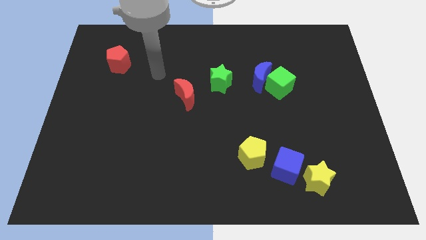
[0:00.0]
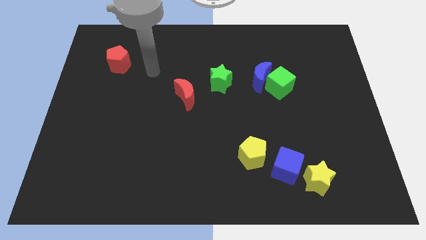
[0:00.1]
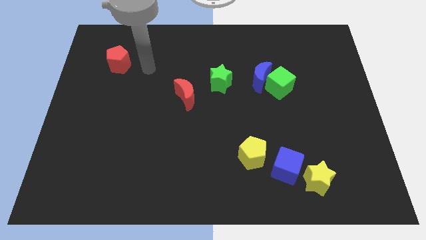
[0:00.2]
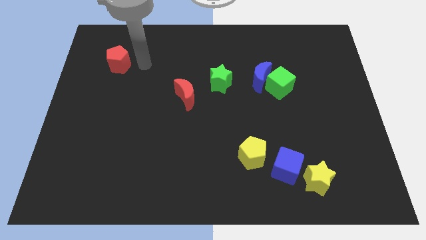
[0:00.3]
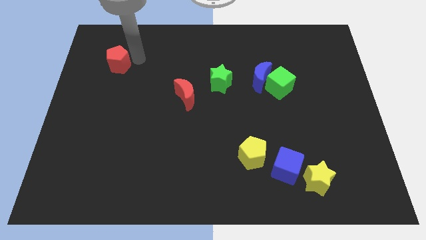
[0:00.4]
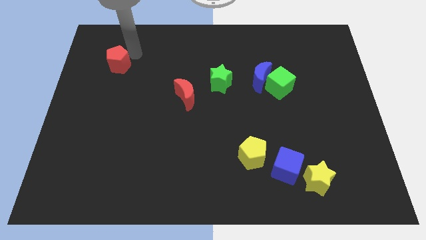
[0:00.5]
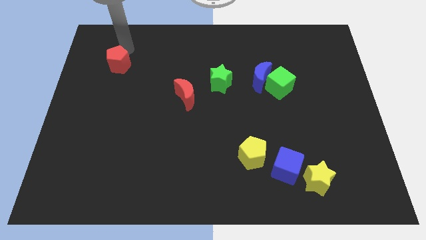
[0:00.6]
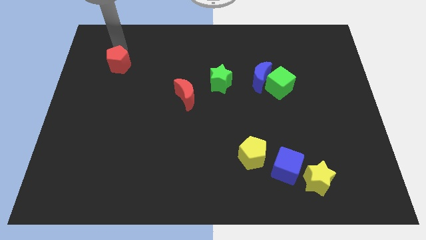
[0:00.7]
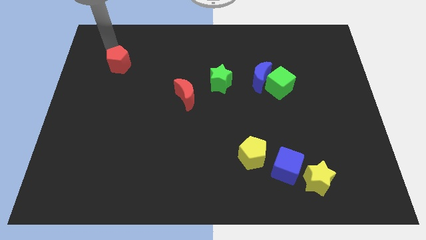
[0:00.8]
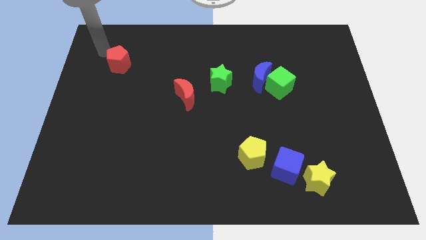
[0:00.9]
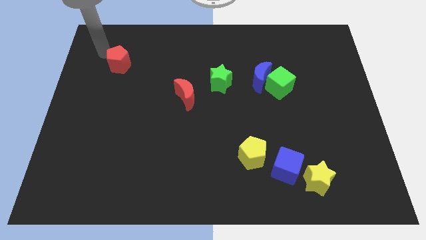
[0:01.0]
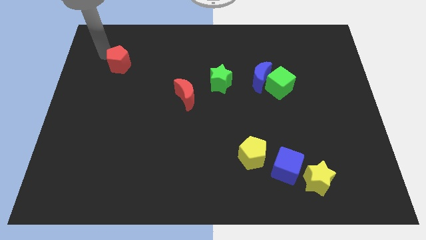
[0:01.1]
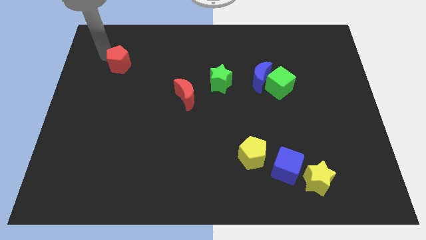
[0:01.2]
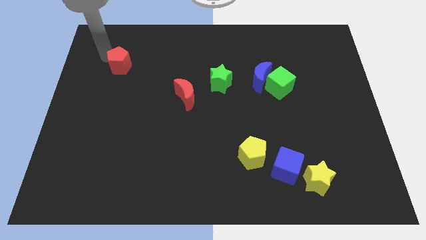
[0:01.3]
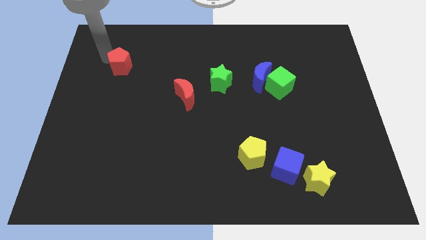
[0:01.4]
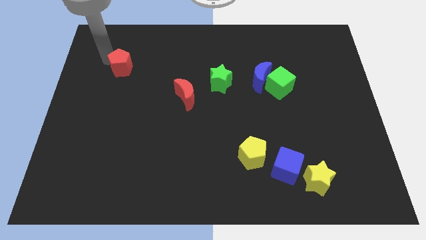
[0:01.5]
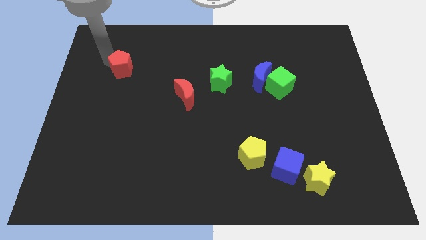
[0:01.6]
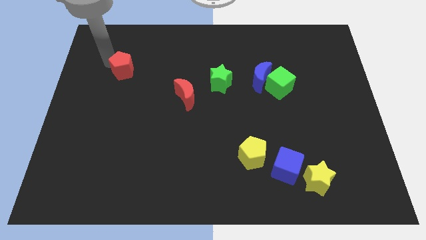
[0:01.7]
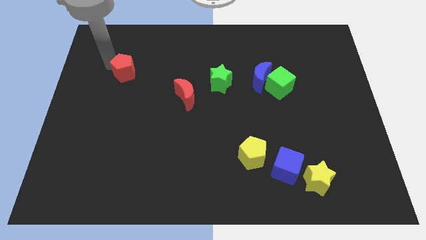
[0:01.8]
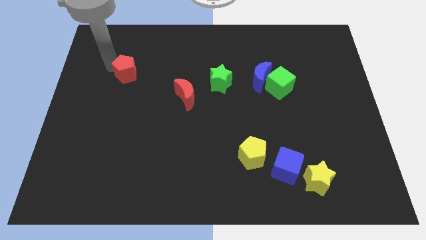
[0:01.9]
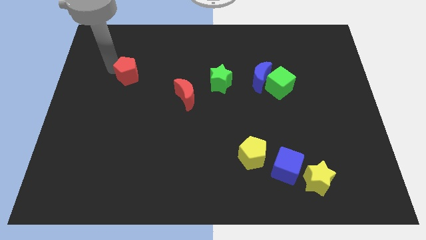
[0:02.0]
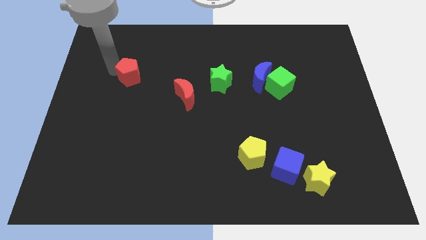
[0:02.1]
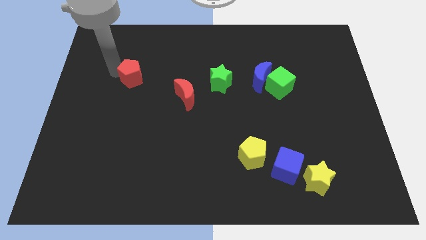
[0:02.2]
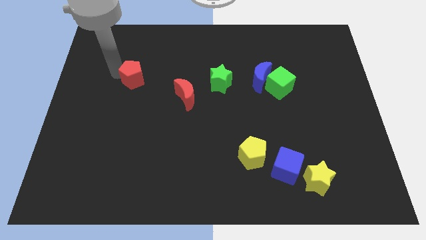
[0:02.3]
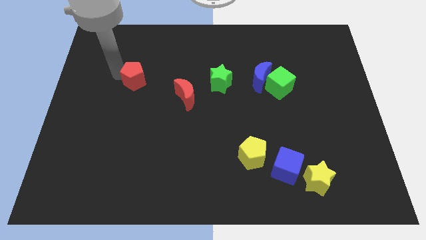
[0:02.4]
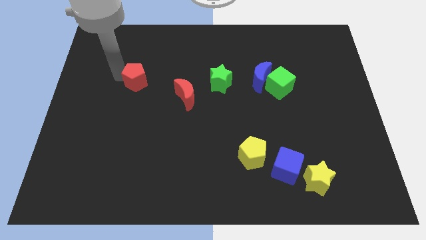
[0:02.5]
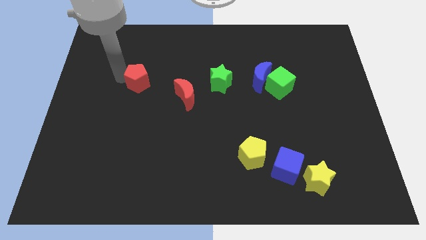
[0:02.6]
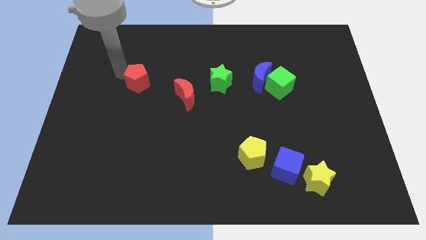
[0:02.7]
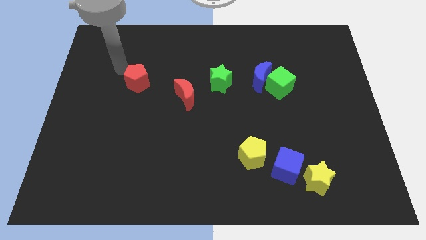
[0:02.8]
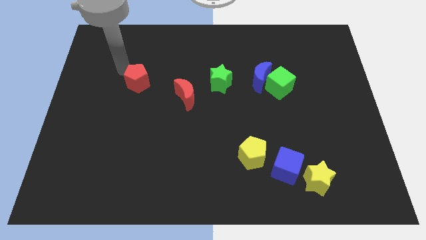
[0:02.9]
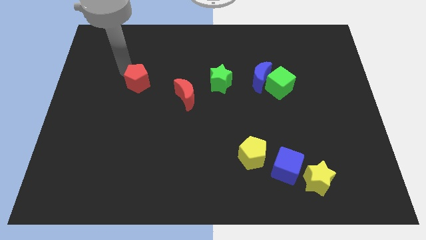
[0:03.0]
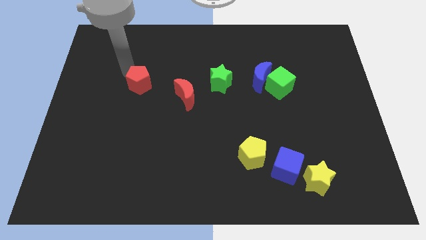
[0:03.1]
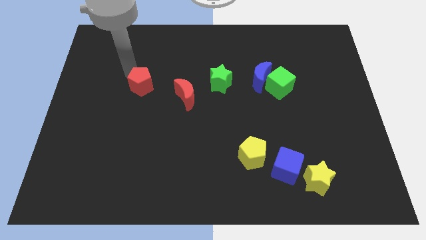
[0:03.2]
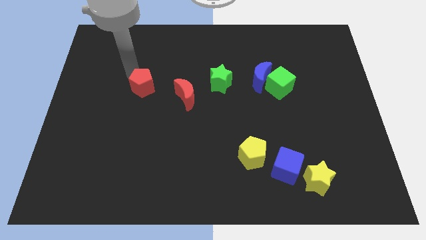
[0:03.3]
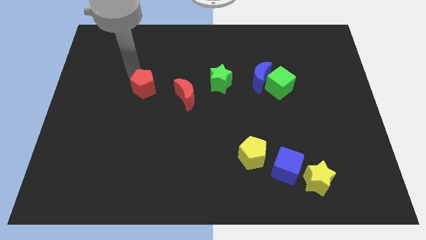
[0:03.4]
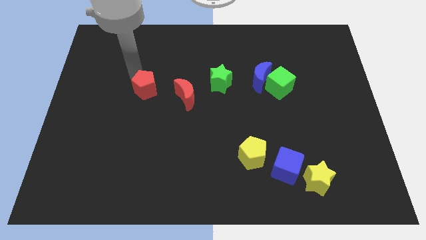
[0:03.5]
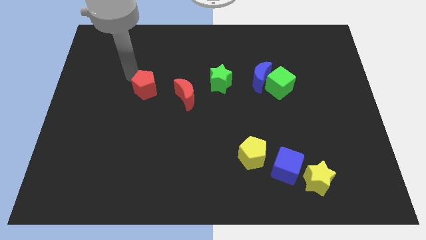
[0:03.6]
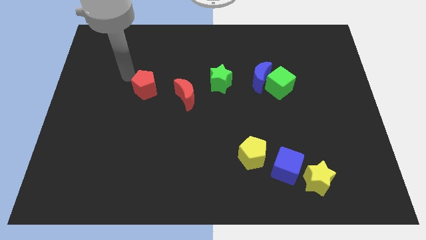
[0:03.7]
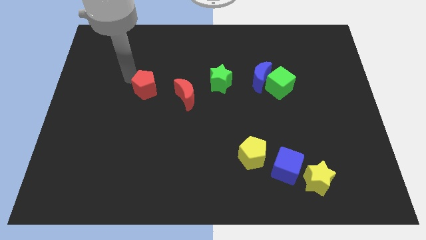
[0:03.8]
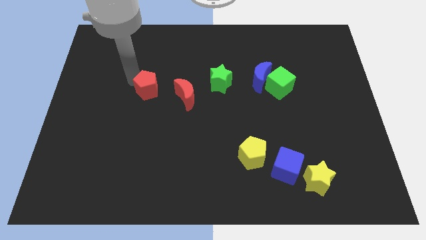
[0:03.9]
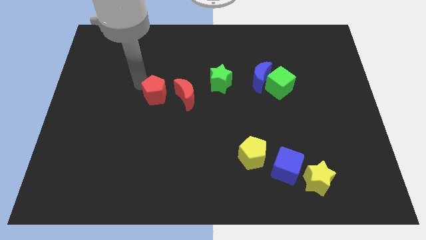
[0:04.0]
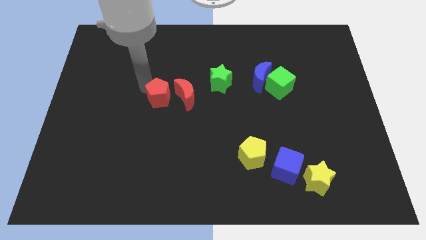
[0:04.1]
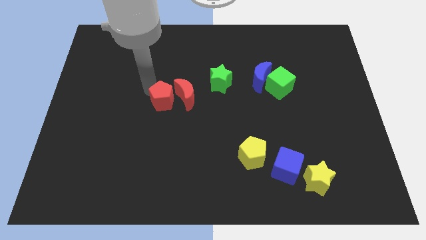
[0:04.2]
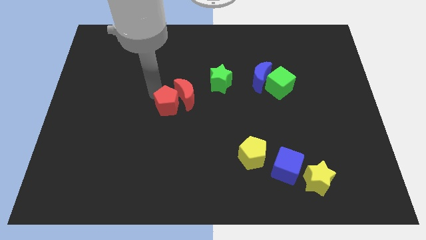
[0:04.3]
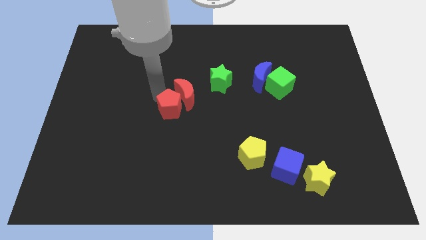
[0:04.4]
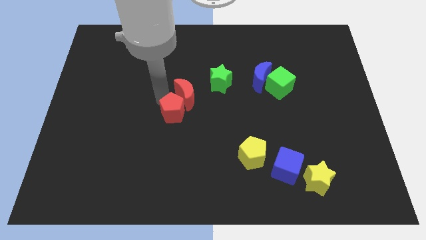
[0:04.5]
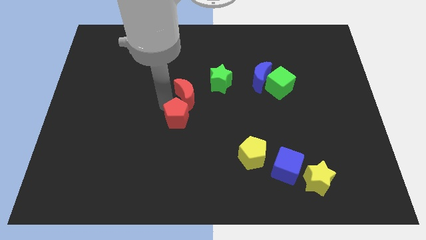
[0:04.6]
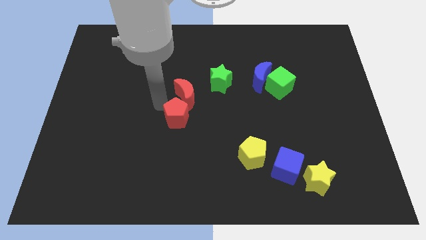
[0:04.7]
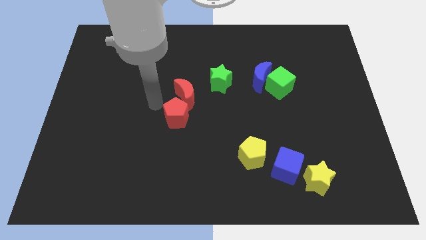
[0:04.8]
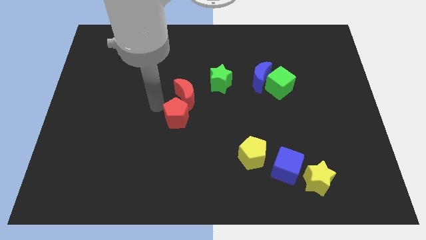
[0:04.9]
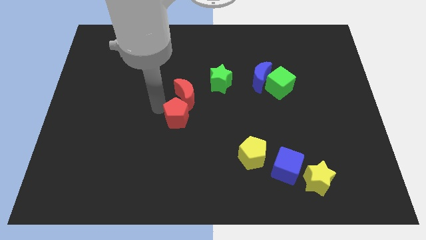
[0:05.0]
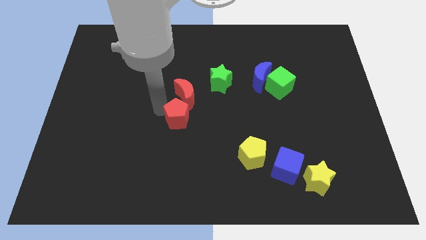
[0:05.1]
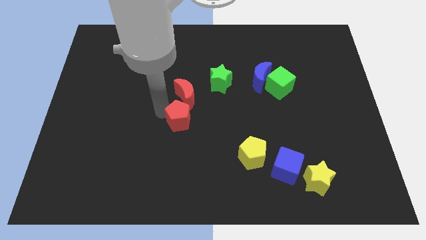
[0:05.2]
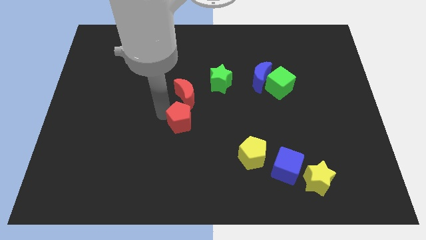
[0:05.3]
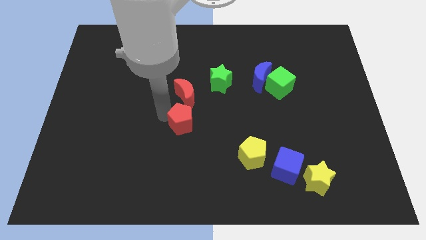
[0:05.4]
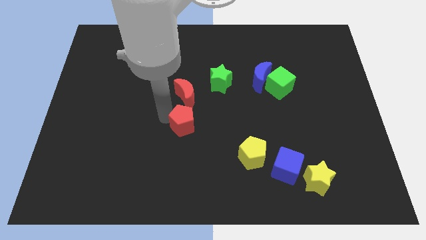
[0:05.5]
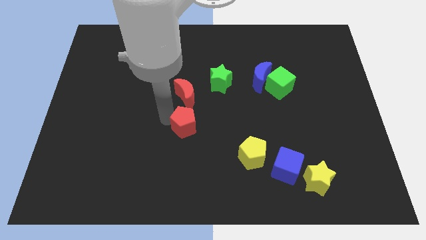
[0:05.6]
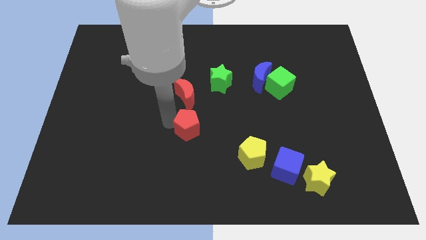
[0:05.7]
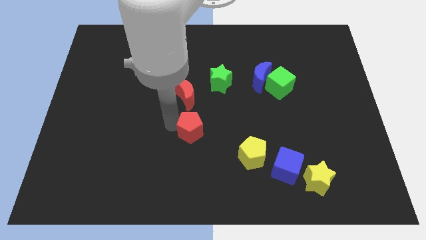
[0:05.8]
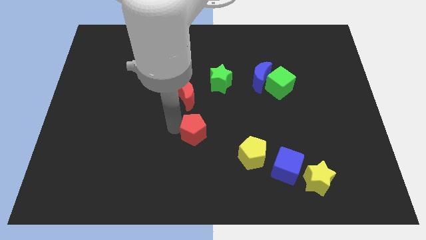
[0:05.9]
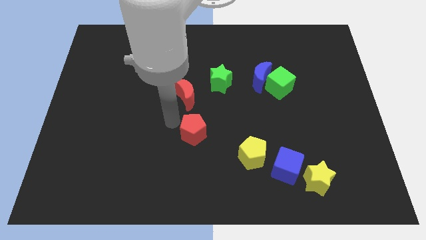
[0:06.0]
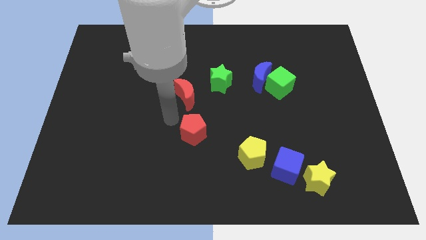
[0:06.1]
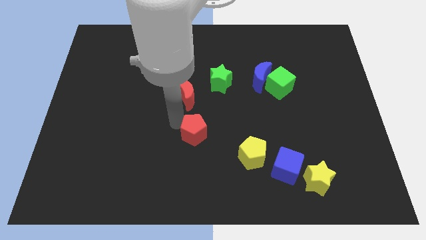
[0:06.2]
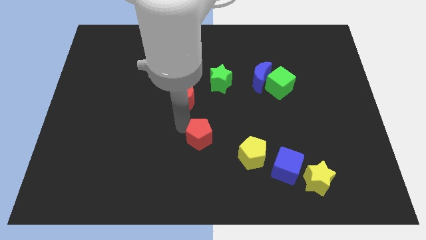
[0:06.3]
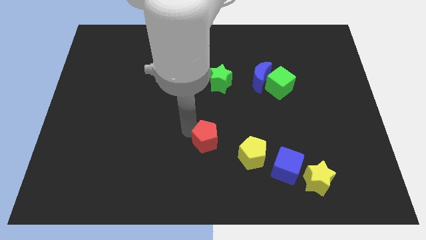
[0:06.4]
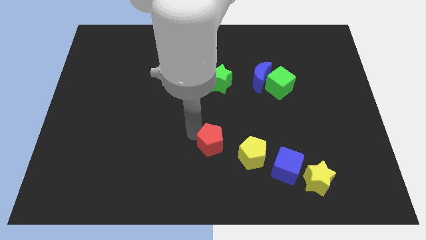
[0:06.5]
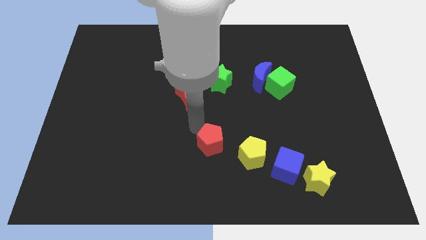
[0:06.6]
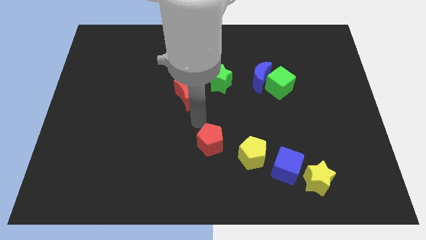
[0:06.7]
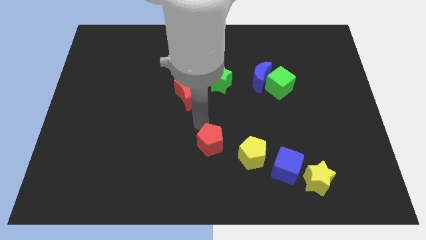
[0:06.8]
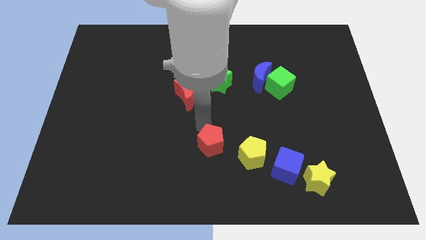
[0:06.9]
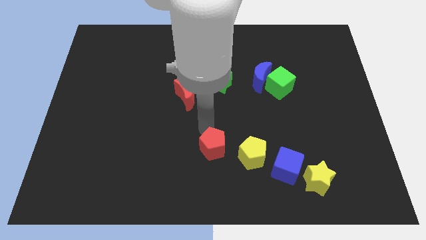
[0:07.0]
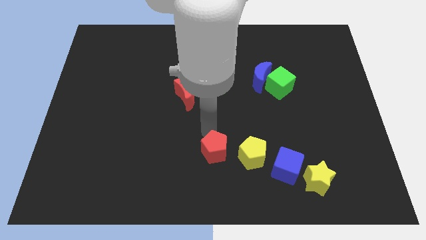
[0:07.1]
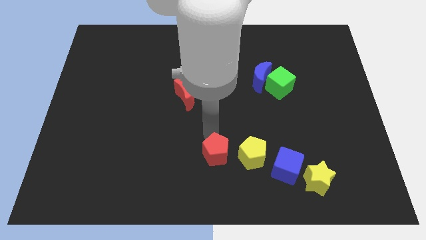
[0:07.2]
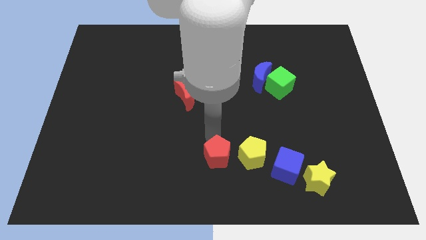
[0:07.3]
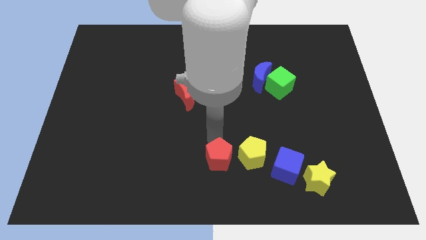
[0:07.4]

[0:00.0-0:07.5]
slide the red pentagon to the bottom left of the yellow pentagon
